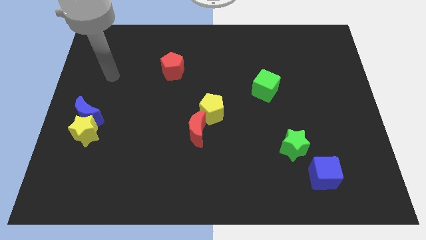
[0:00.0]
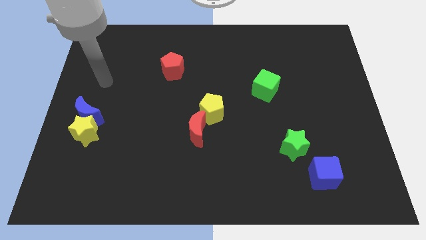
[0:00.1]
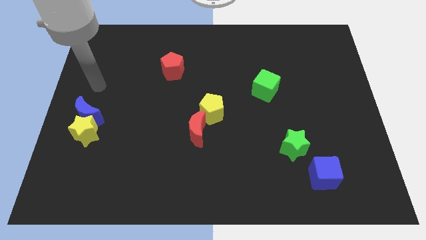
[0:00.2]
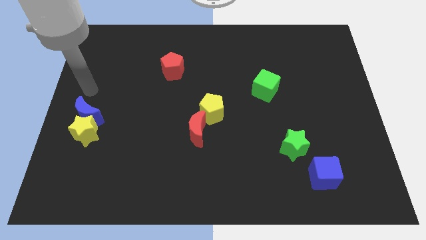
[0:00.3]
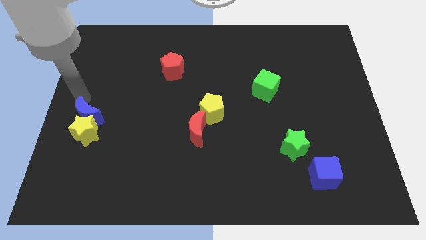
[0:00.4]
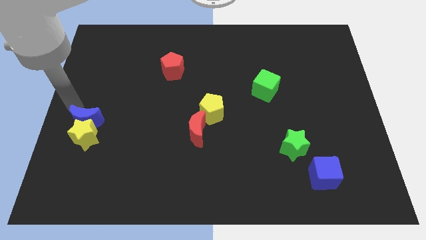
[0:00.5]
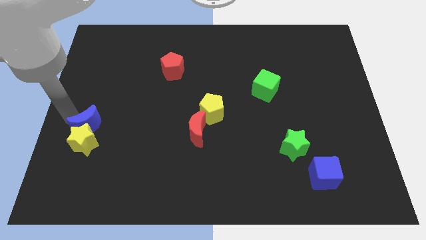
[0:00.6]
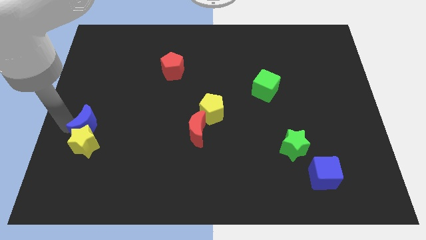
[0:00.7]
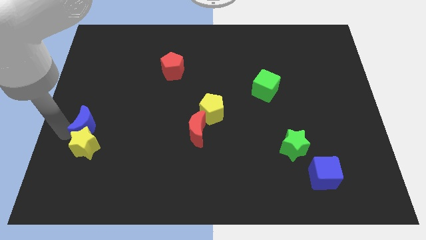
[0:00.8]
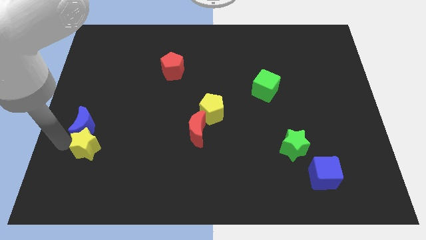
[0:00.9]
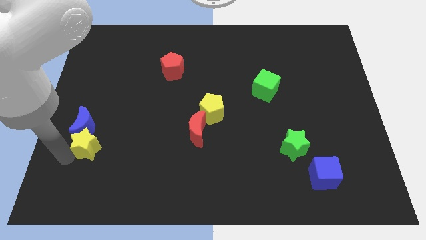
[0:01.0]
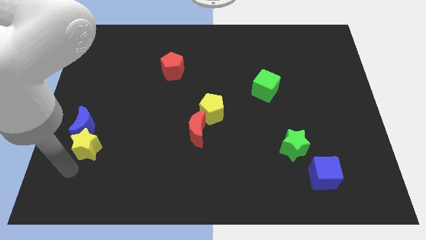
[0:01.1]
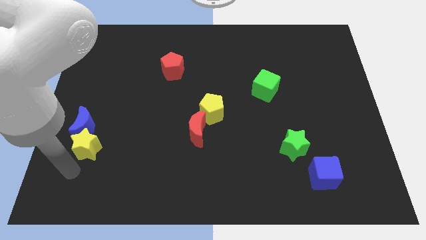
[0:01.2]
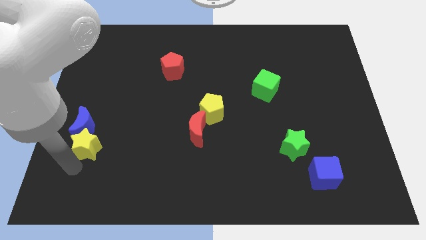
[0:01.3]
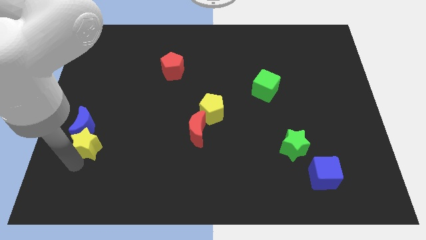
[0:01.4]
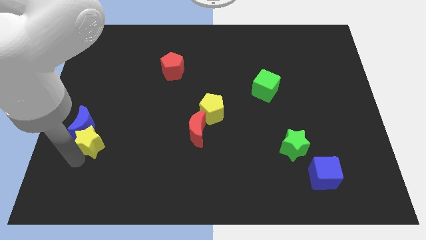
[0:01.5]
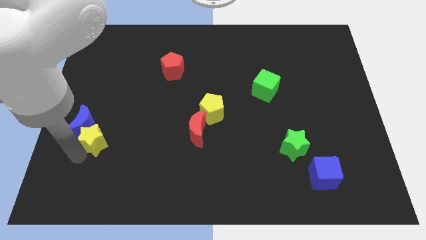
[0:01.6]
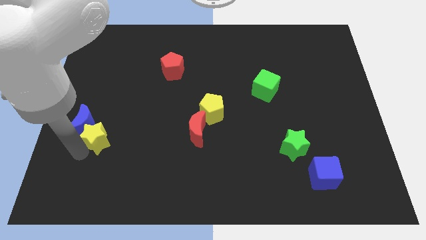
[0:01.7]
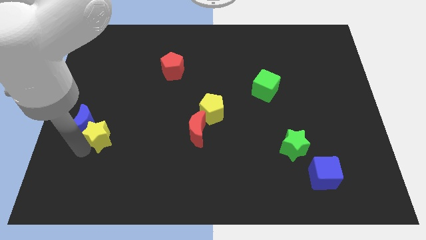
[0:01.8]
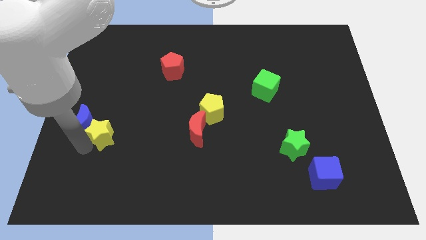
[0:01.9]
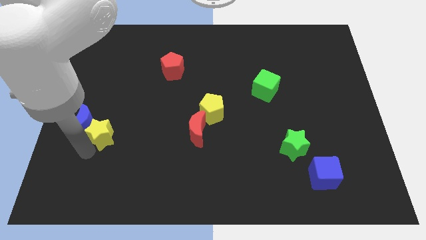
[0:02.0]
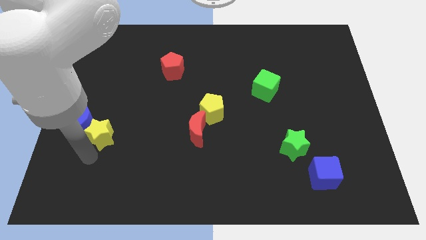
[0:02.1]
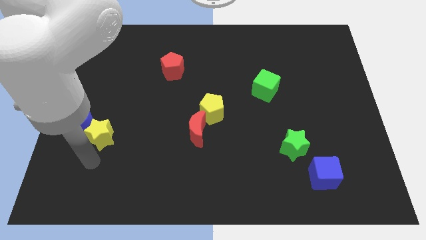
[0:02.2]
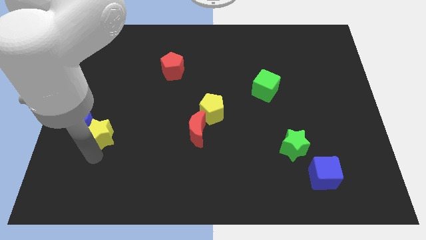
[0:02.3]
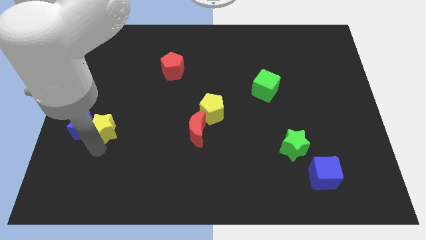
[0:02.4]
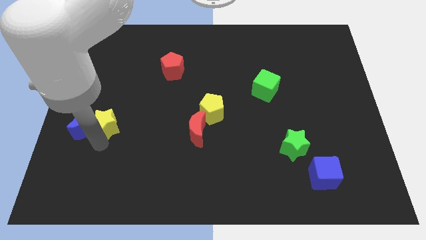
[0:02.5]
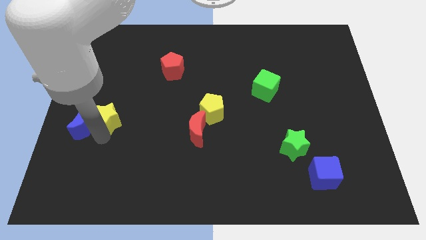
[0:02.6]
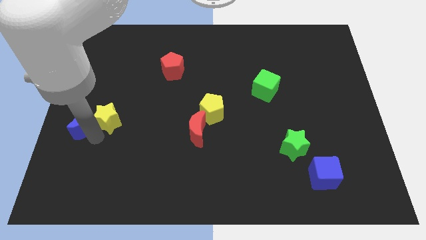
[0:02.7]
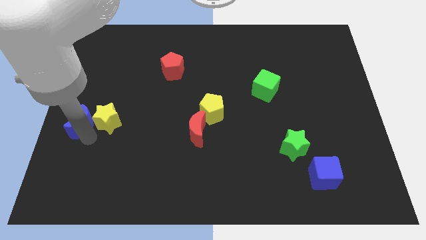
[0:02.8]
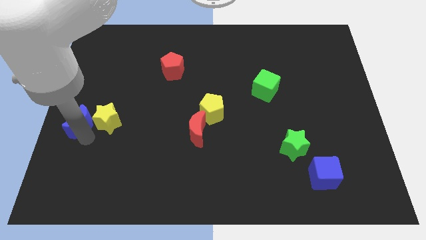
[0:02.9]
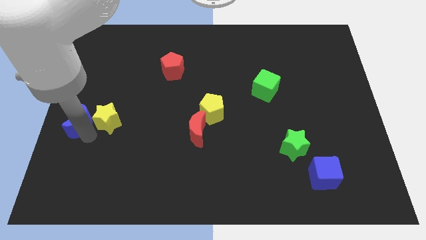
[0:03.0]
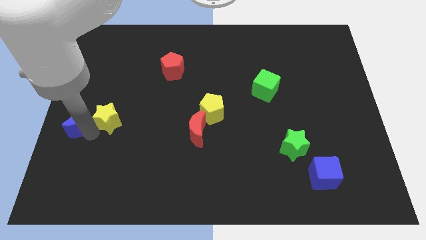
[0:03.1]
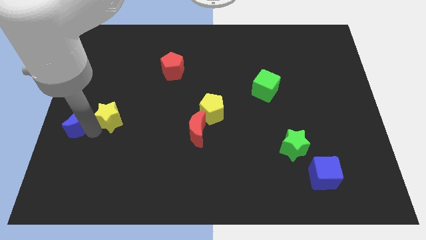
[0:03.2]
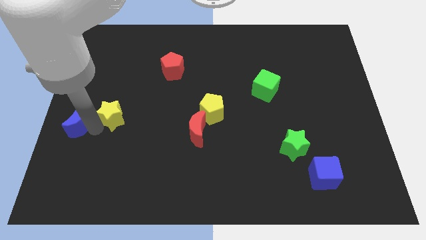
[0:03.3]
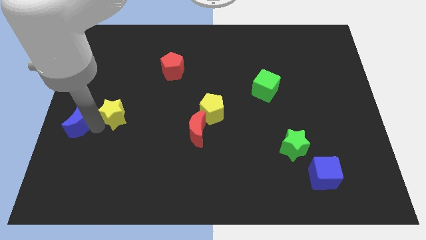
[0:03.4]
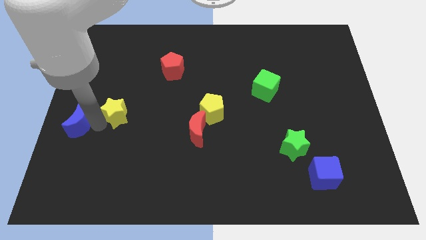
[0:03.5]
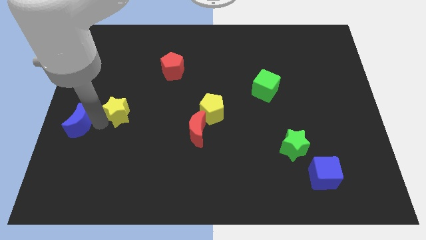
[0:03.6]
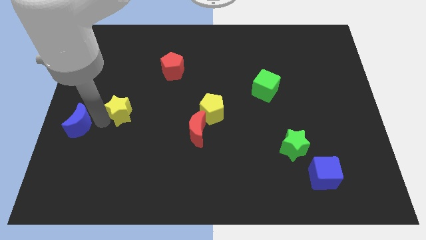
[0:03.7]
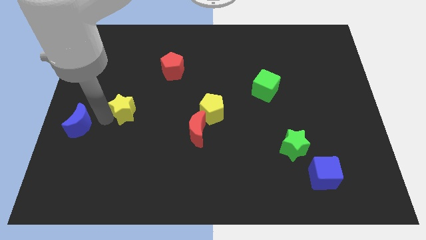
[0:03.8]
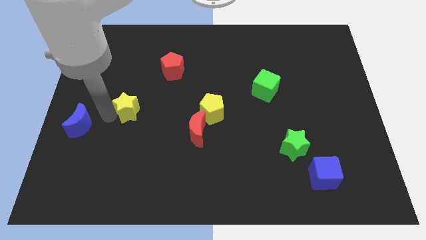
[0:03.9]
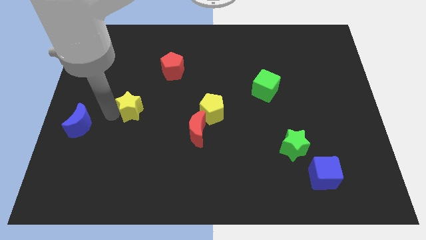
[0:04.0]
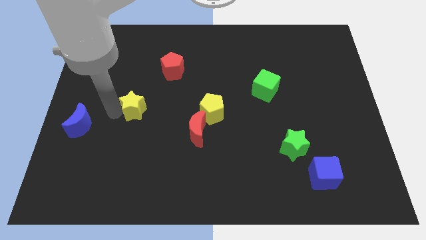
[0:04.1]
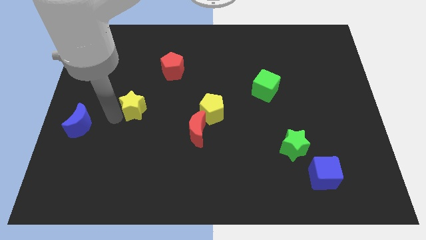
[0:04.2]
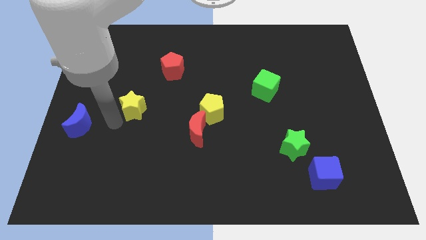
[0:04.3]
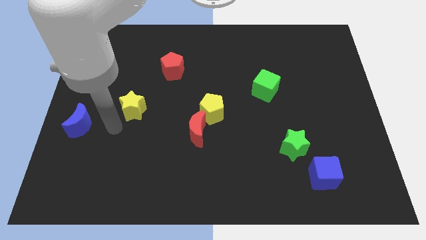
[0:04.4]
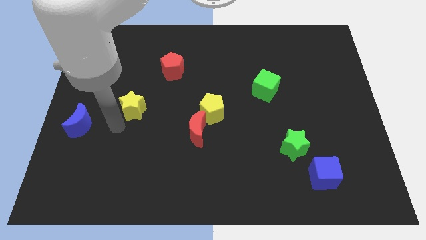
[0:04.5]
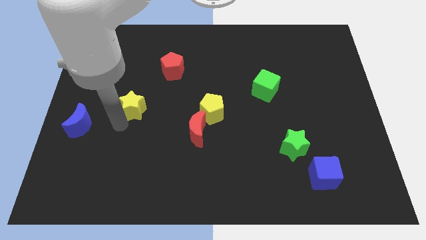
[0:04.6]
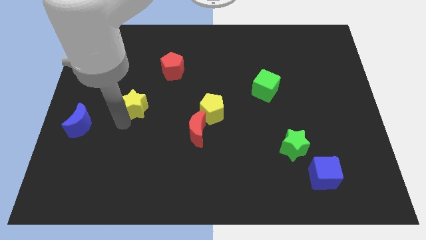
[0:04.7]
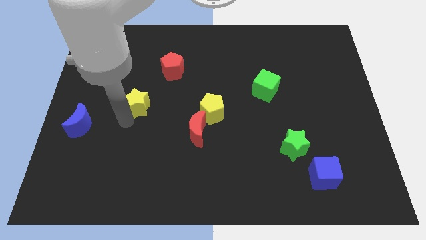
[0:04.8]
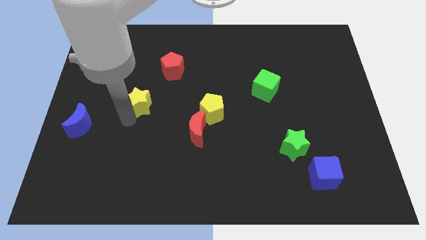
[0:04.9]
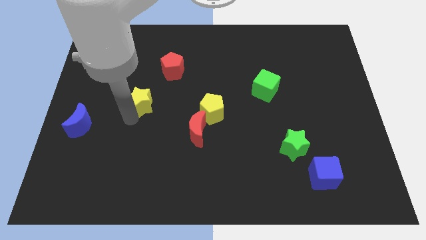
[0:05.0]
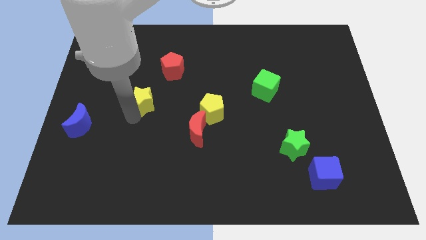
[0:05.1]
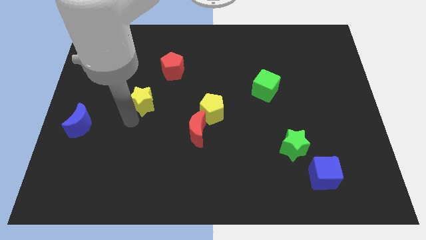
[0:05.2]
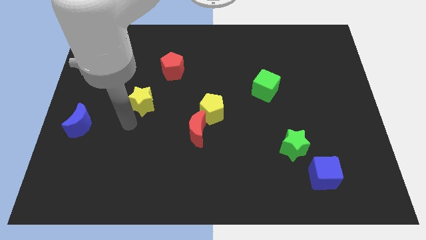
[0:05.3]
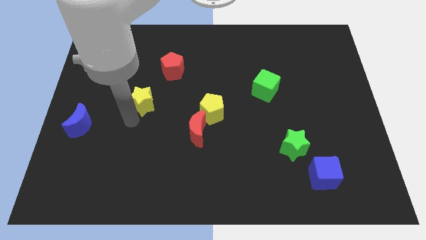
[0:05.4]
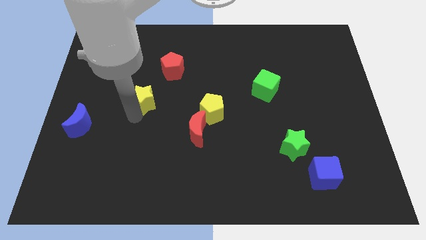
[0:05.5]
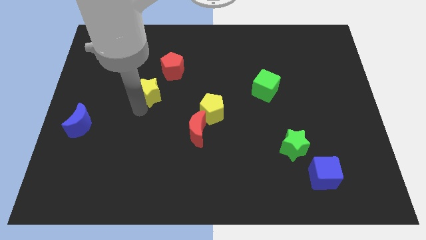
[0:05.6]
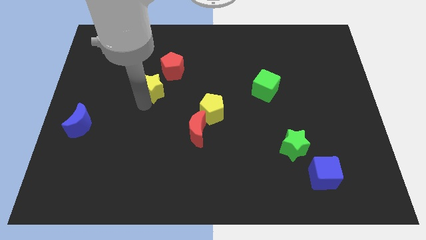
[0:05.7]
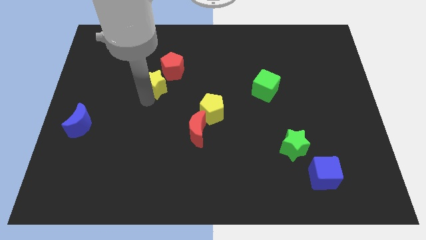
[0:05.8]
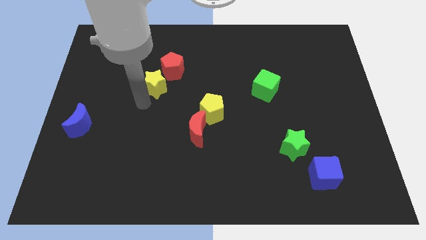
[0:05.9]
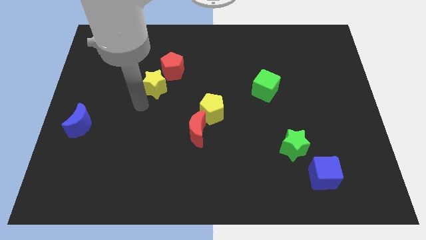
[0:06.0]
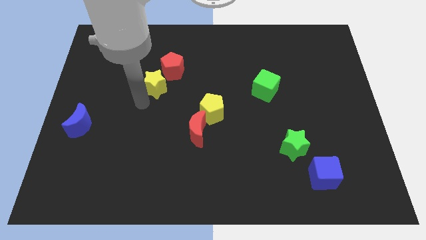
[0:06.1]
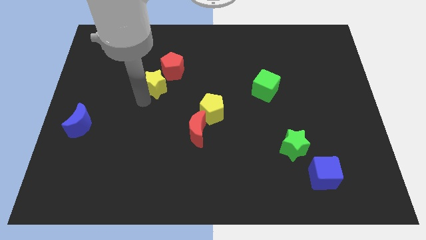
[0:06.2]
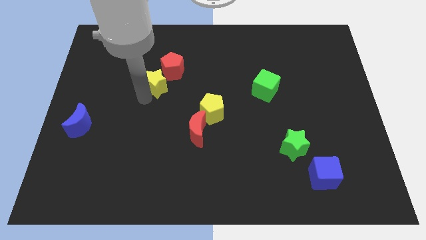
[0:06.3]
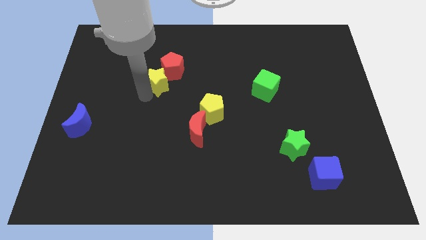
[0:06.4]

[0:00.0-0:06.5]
slide the yellow star close to the red pentagon

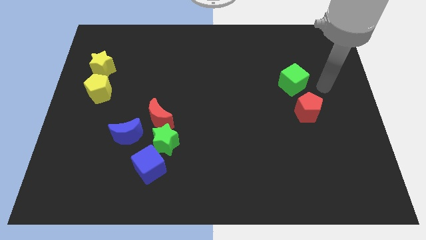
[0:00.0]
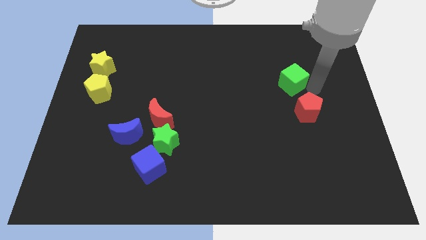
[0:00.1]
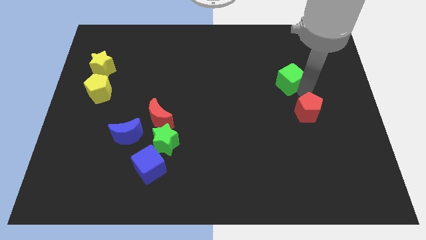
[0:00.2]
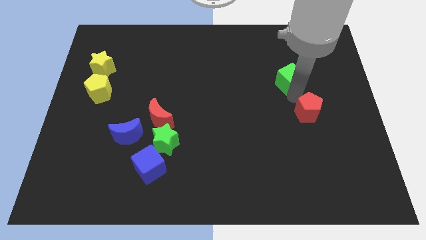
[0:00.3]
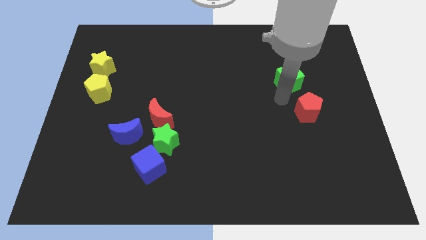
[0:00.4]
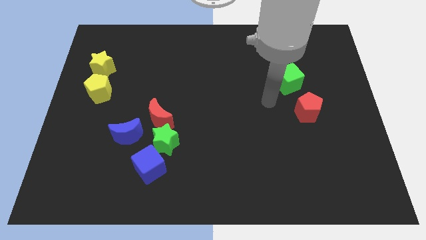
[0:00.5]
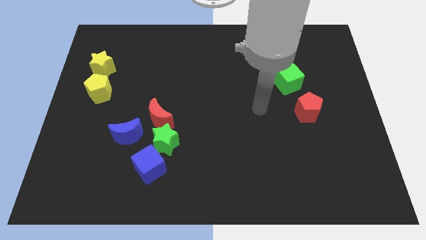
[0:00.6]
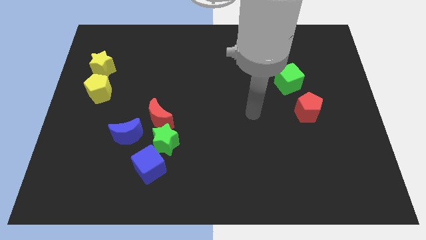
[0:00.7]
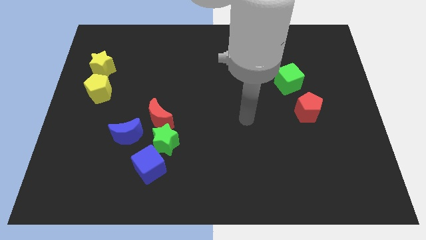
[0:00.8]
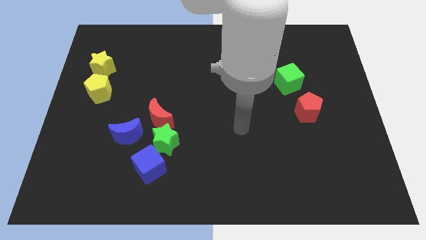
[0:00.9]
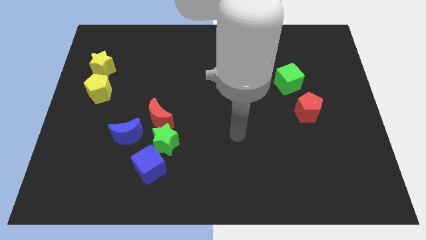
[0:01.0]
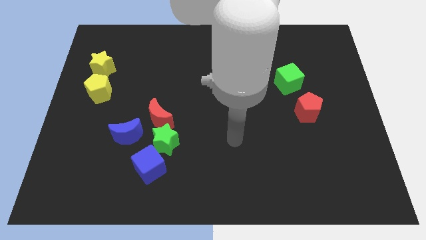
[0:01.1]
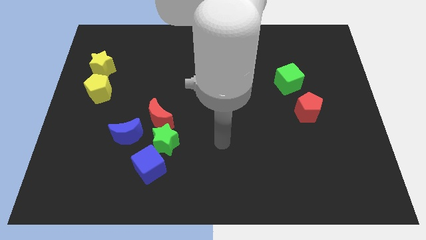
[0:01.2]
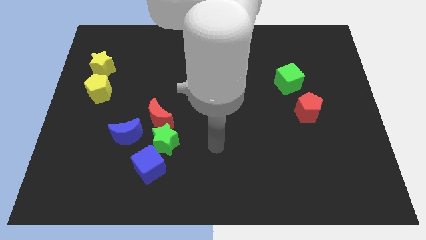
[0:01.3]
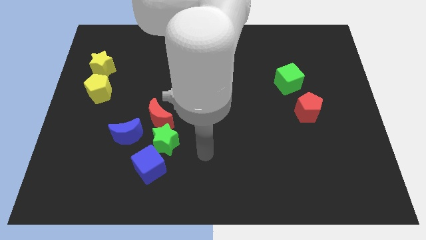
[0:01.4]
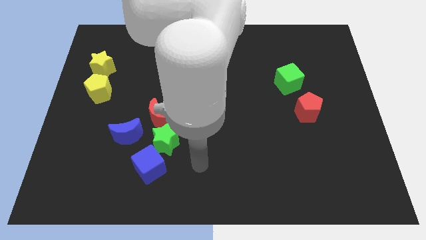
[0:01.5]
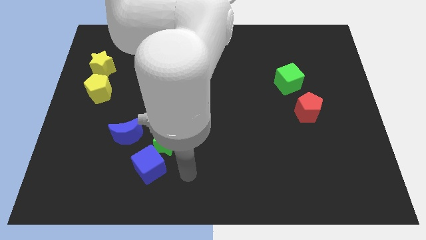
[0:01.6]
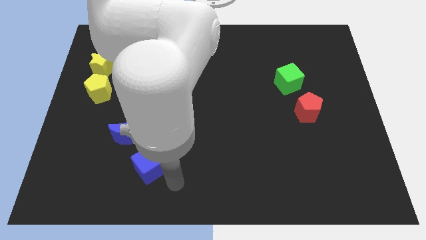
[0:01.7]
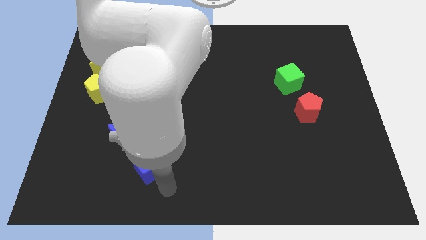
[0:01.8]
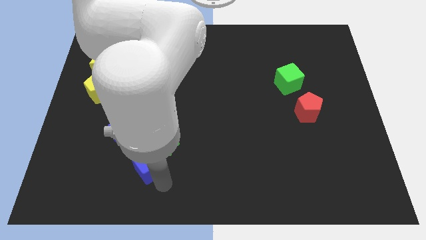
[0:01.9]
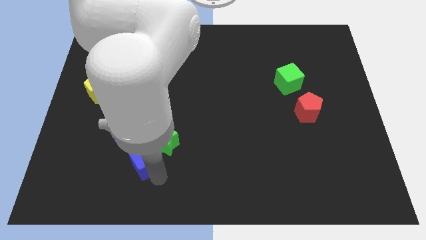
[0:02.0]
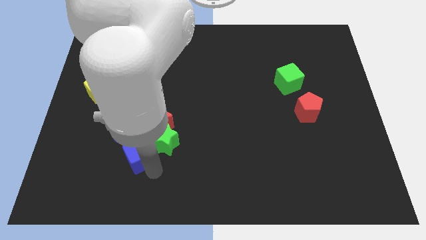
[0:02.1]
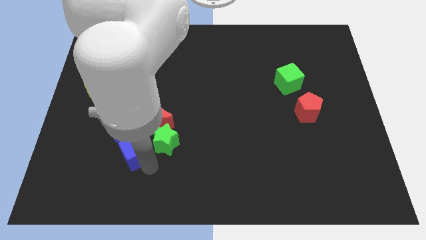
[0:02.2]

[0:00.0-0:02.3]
push the blue cube close to the blue moon
